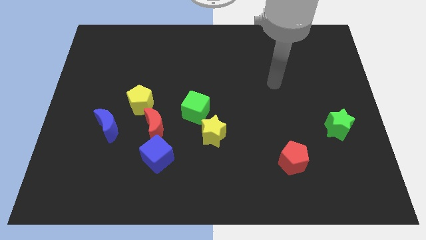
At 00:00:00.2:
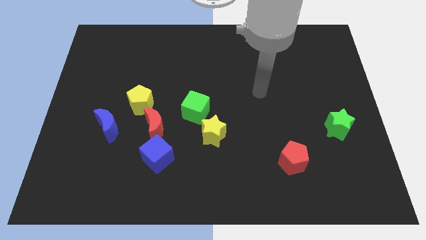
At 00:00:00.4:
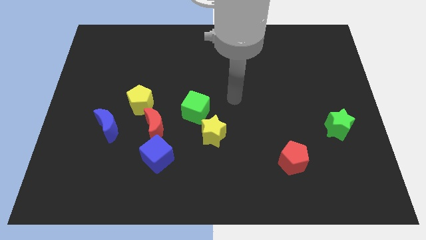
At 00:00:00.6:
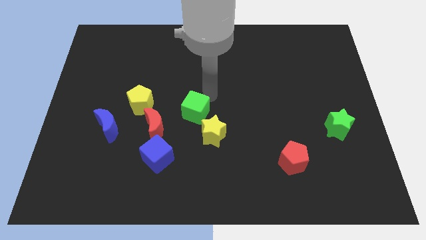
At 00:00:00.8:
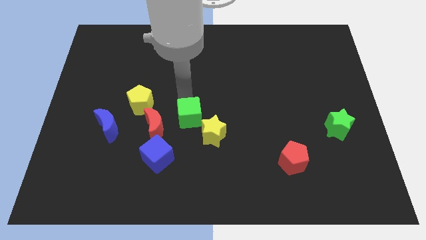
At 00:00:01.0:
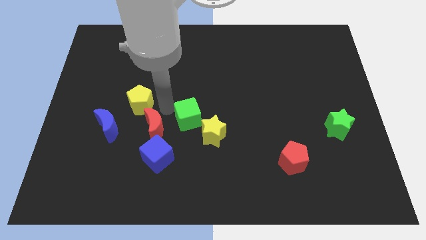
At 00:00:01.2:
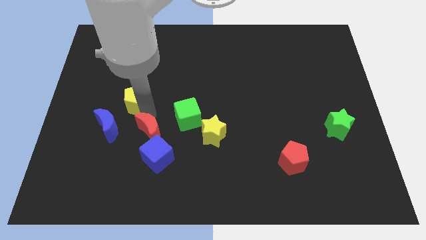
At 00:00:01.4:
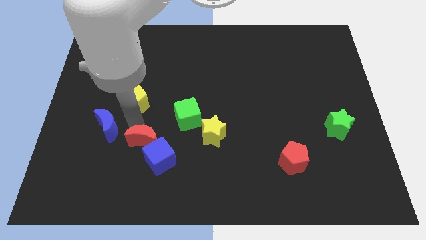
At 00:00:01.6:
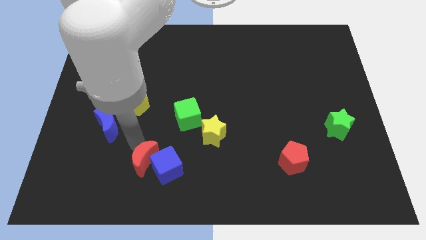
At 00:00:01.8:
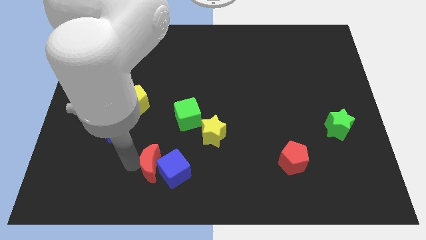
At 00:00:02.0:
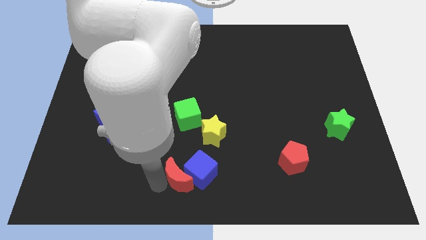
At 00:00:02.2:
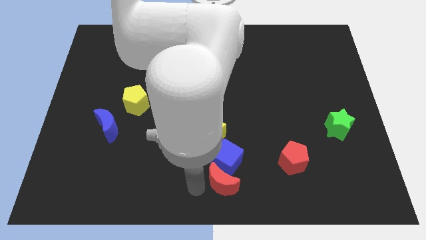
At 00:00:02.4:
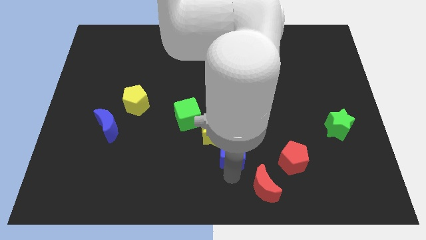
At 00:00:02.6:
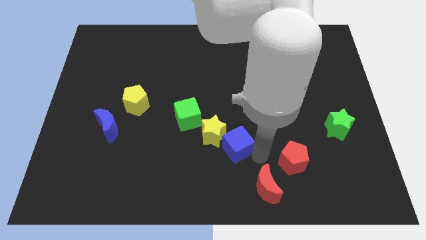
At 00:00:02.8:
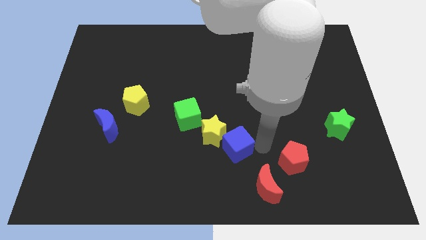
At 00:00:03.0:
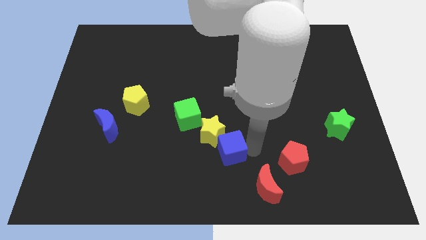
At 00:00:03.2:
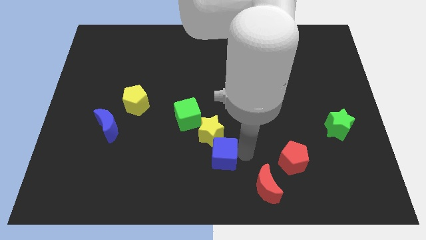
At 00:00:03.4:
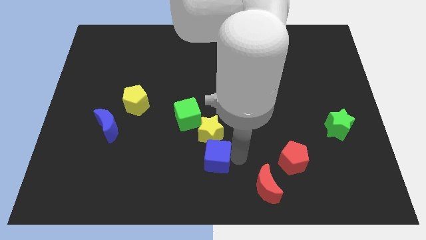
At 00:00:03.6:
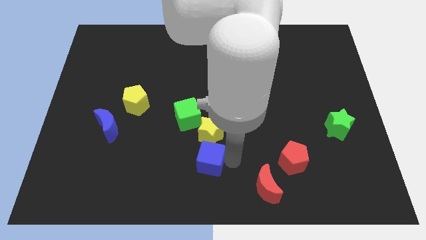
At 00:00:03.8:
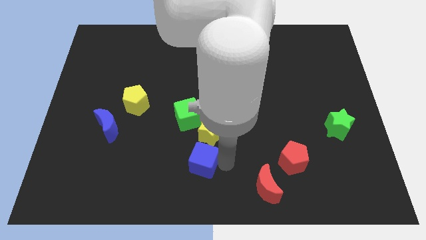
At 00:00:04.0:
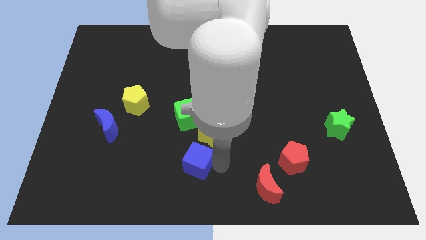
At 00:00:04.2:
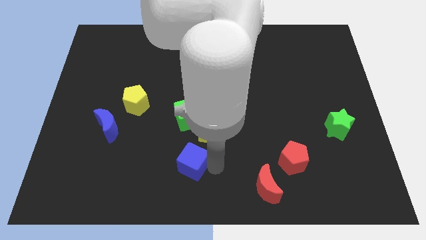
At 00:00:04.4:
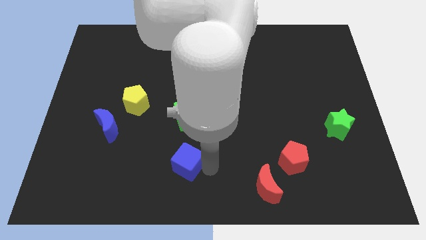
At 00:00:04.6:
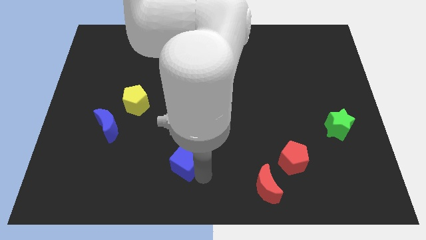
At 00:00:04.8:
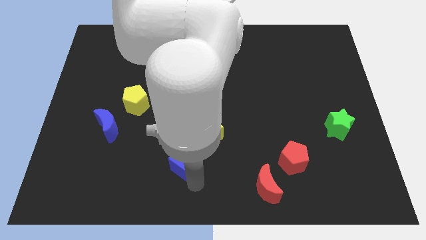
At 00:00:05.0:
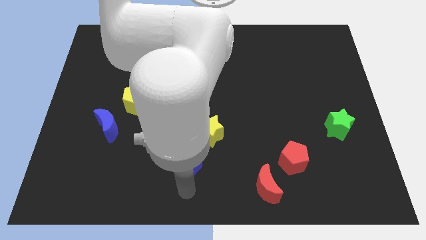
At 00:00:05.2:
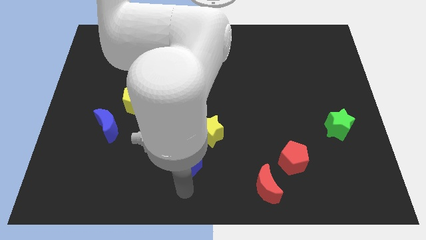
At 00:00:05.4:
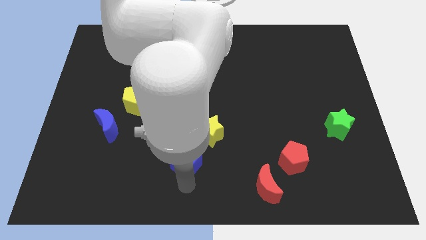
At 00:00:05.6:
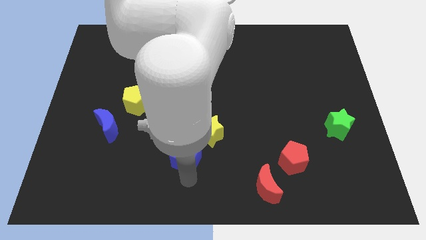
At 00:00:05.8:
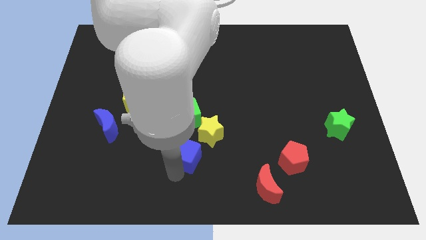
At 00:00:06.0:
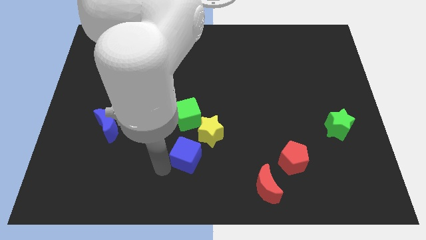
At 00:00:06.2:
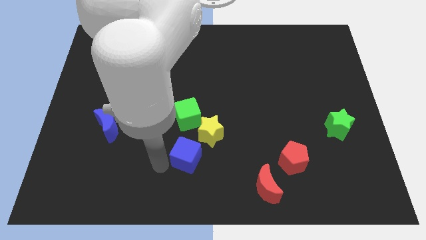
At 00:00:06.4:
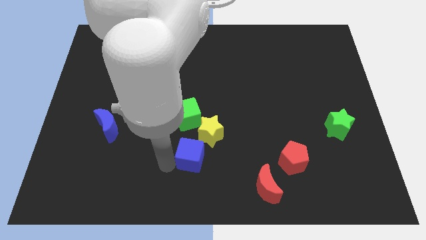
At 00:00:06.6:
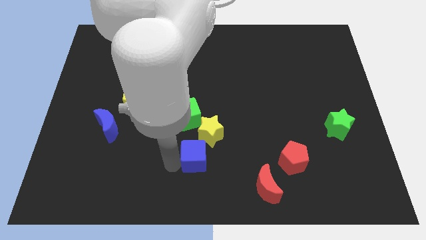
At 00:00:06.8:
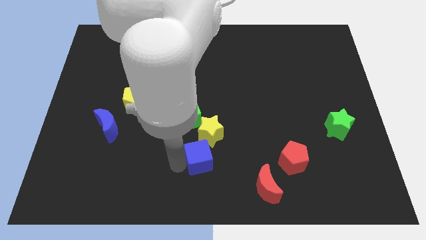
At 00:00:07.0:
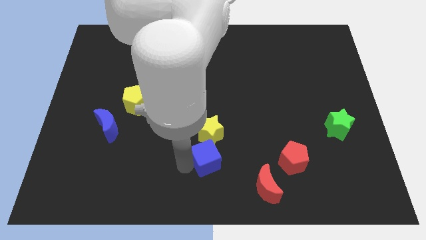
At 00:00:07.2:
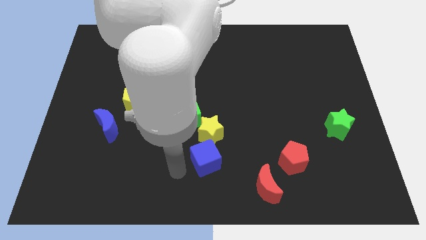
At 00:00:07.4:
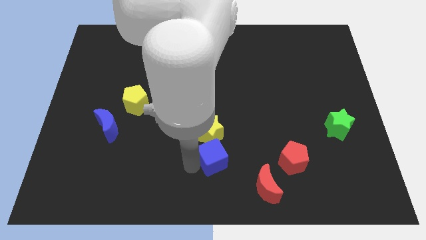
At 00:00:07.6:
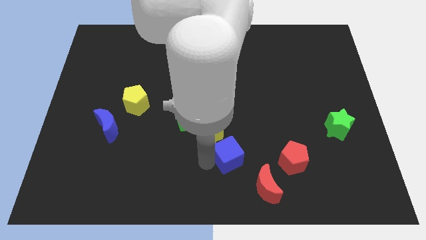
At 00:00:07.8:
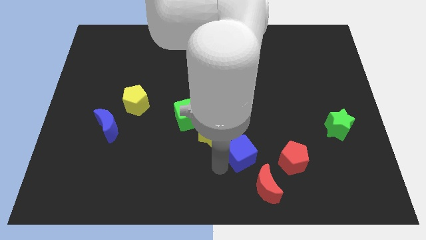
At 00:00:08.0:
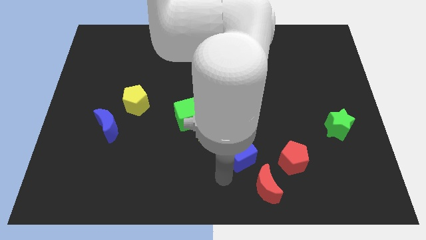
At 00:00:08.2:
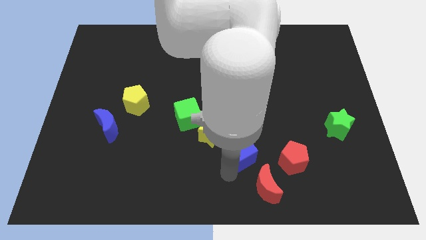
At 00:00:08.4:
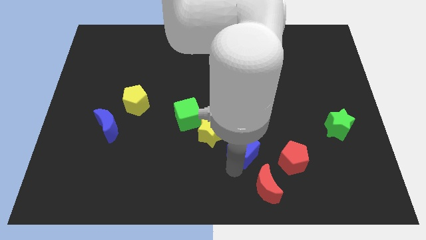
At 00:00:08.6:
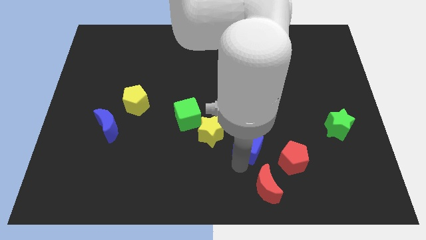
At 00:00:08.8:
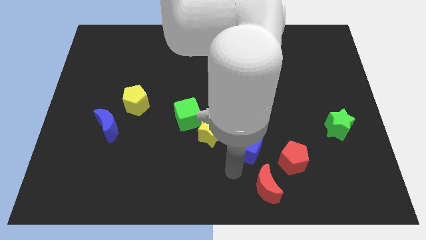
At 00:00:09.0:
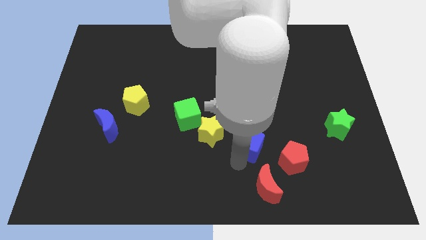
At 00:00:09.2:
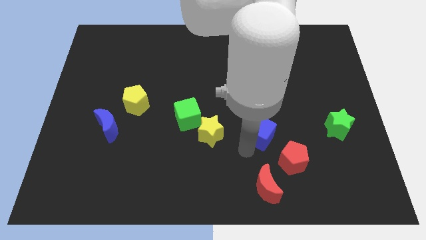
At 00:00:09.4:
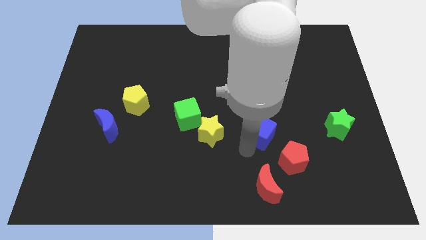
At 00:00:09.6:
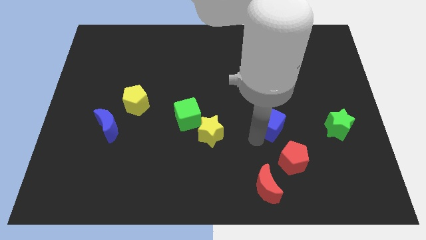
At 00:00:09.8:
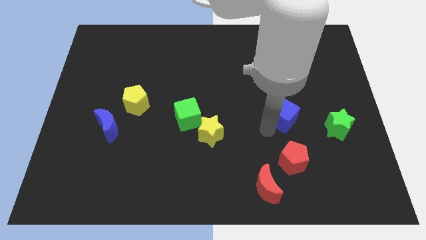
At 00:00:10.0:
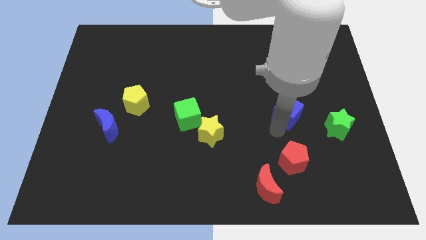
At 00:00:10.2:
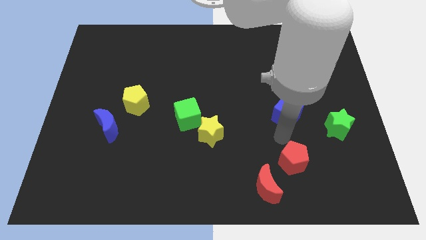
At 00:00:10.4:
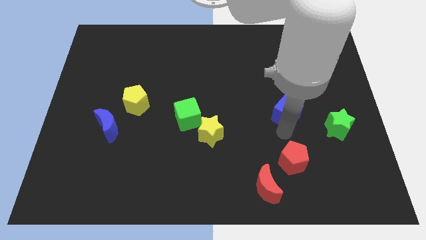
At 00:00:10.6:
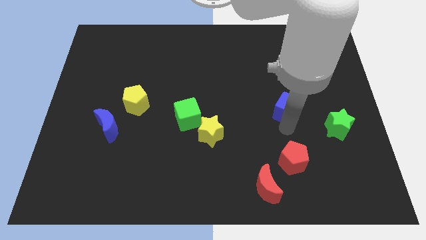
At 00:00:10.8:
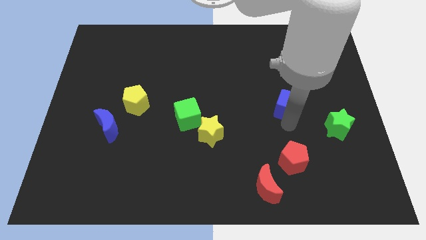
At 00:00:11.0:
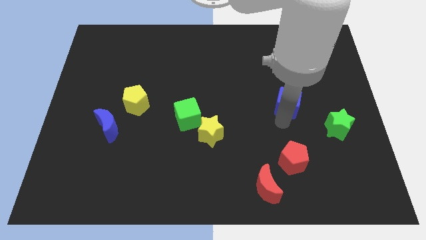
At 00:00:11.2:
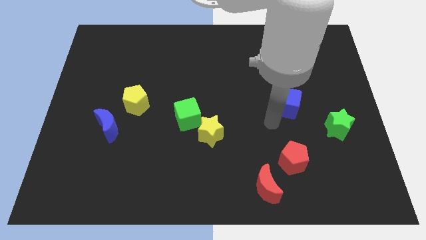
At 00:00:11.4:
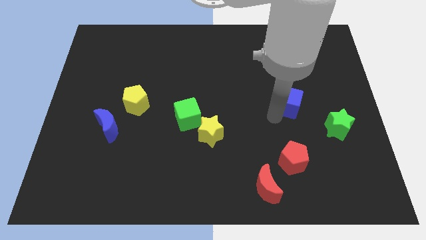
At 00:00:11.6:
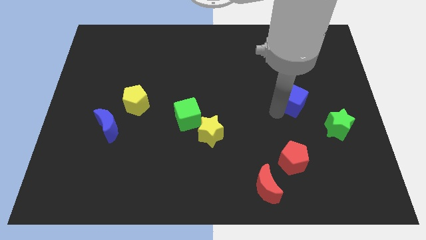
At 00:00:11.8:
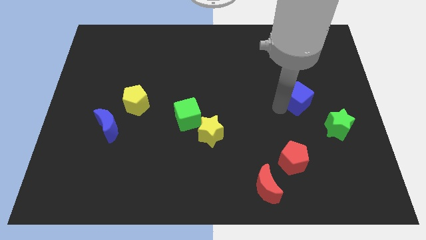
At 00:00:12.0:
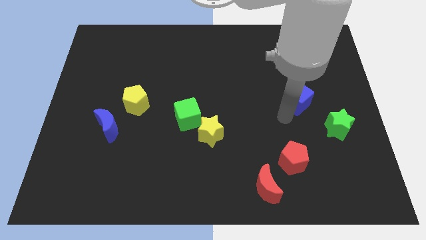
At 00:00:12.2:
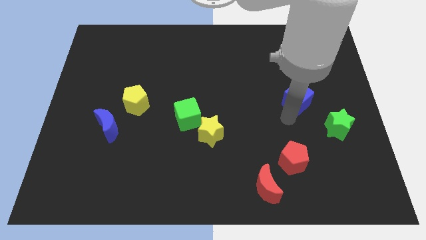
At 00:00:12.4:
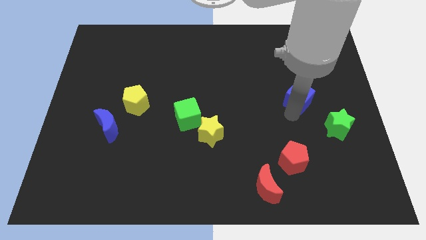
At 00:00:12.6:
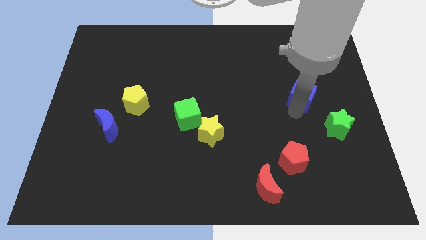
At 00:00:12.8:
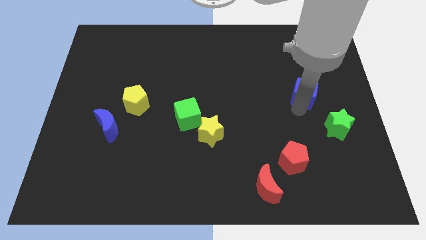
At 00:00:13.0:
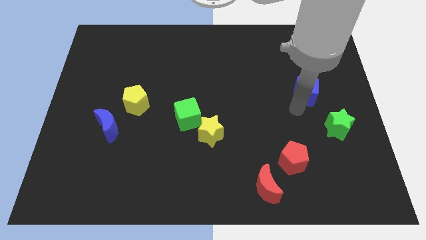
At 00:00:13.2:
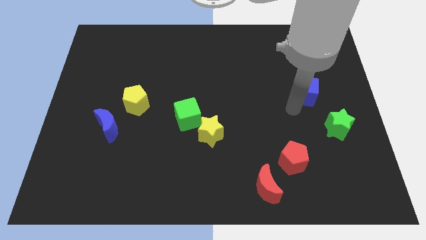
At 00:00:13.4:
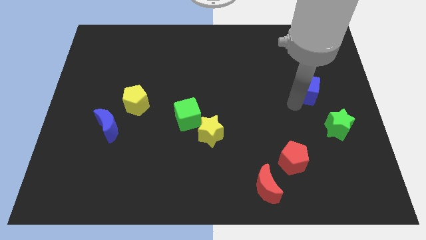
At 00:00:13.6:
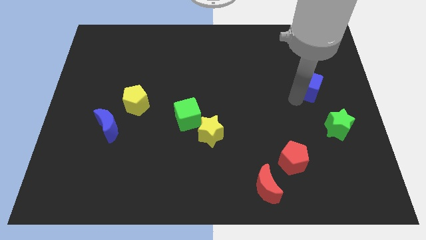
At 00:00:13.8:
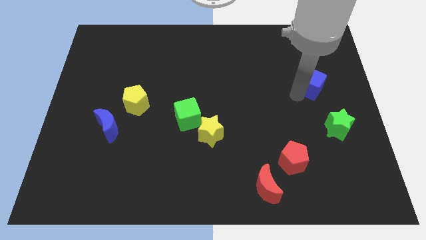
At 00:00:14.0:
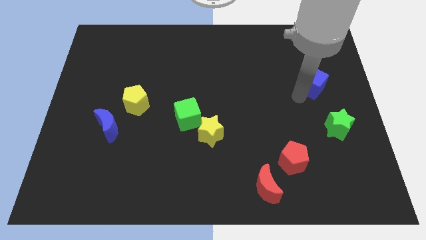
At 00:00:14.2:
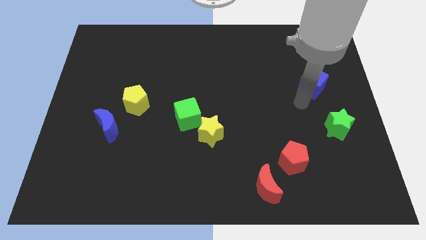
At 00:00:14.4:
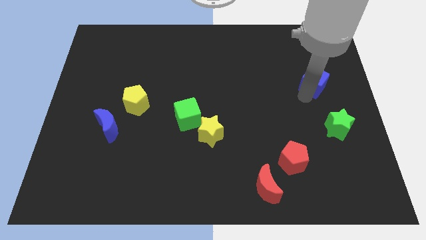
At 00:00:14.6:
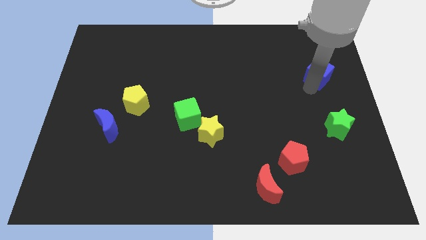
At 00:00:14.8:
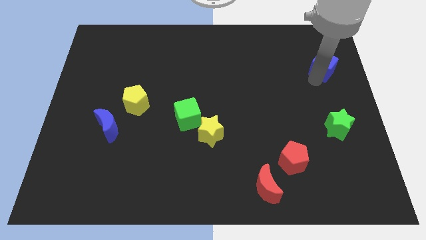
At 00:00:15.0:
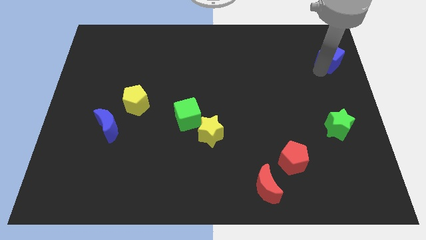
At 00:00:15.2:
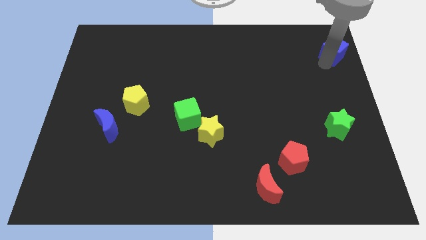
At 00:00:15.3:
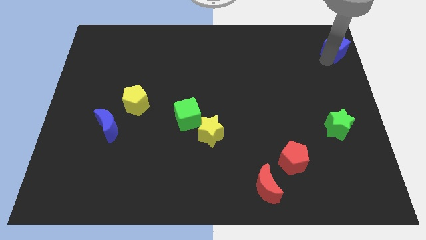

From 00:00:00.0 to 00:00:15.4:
put the blue cube to the top right
